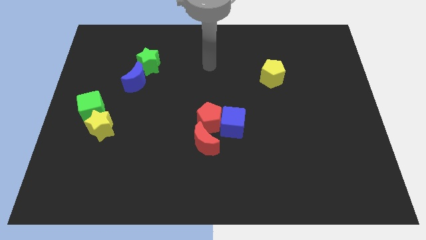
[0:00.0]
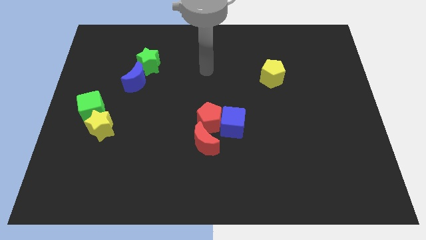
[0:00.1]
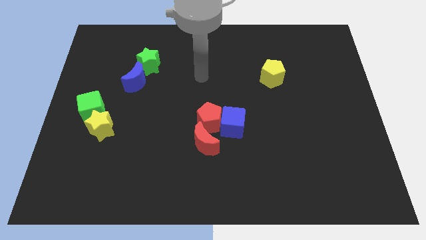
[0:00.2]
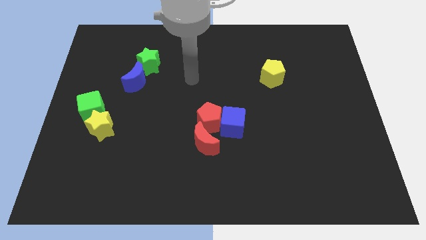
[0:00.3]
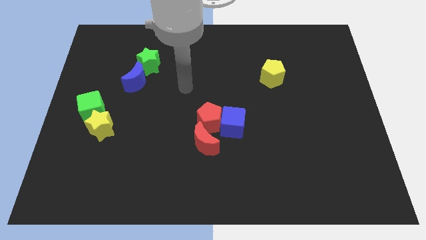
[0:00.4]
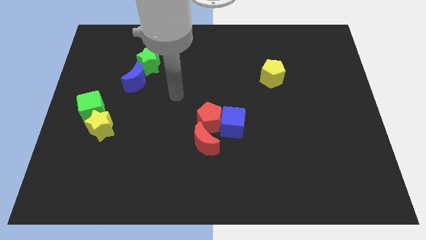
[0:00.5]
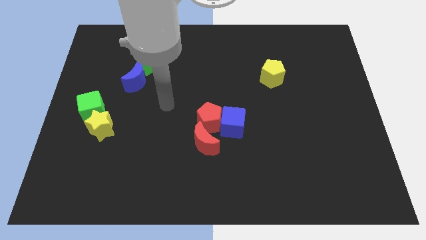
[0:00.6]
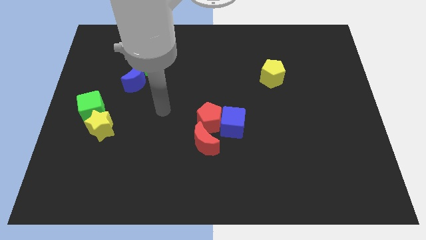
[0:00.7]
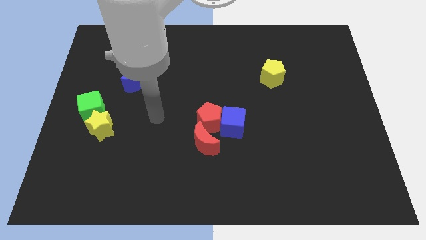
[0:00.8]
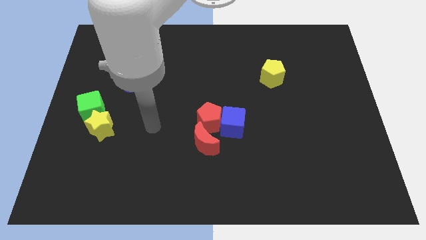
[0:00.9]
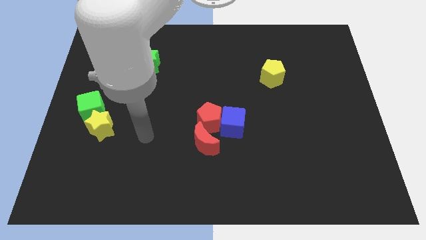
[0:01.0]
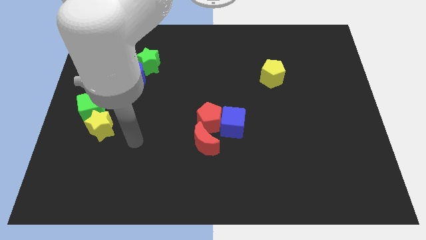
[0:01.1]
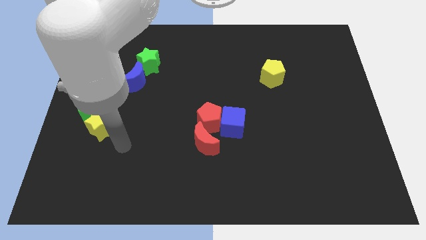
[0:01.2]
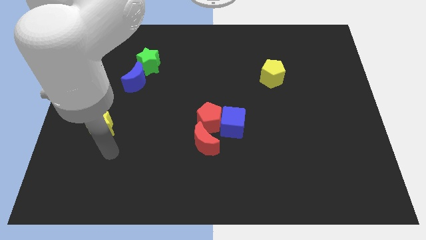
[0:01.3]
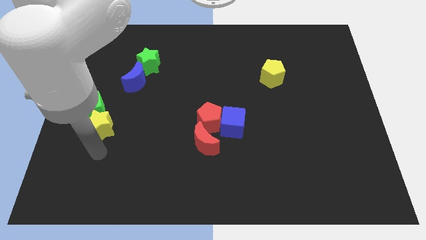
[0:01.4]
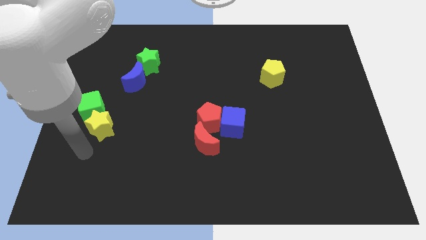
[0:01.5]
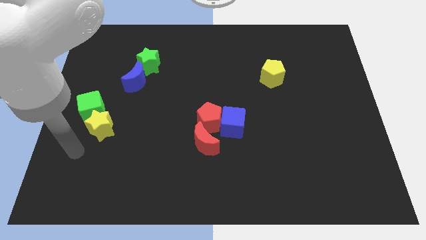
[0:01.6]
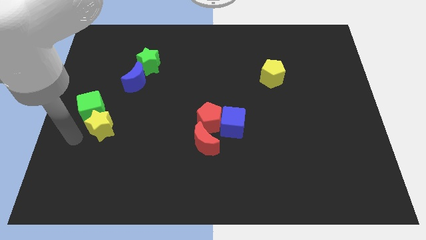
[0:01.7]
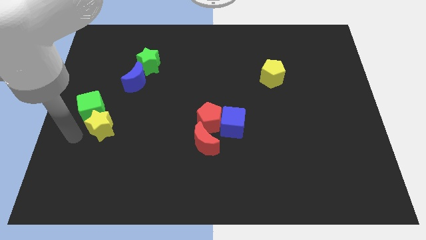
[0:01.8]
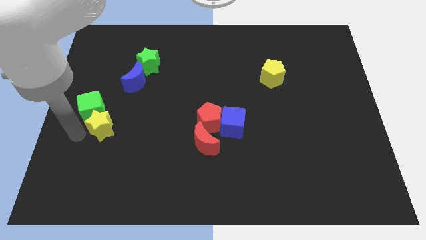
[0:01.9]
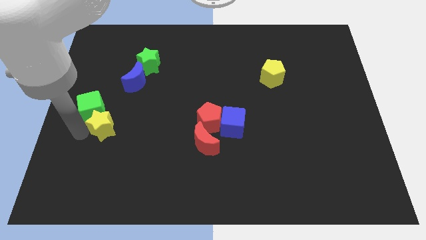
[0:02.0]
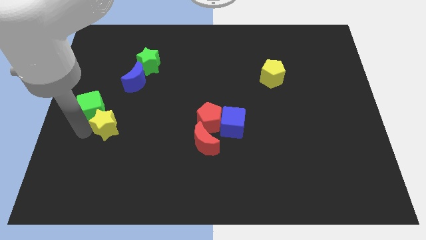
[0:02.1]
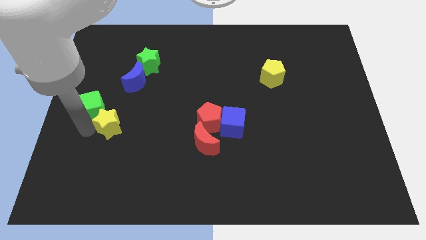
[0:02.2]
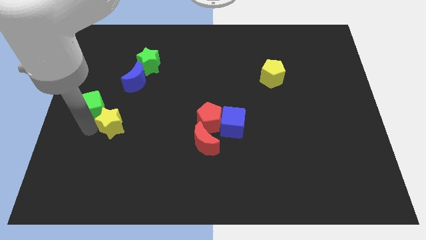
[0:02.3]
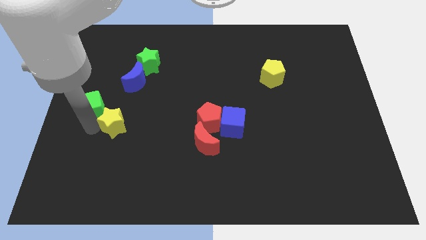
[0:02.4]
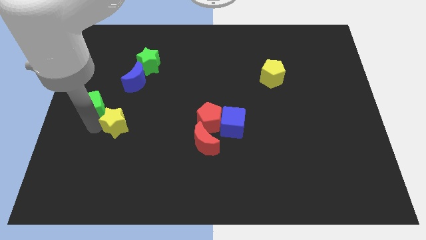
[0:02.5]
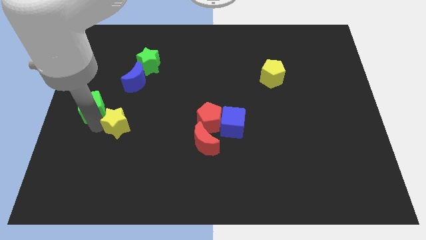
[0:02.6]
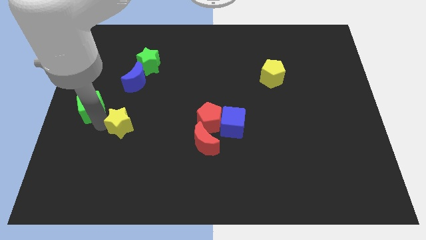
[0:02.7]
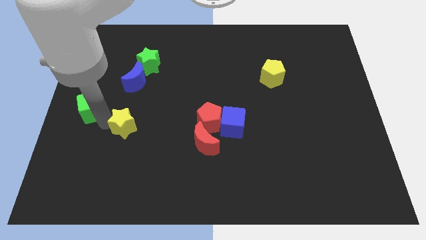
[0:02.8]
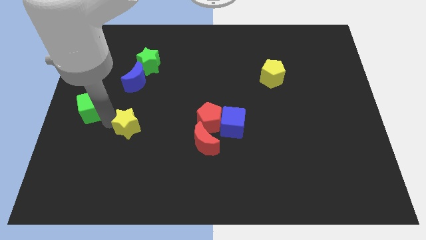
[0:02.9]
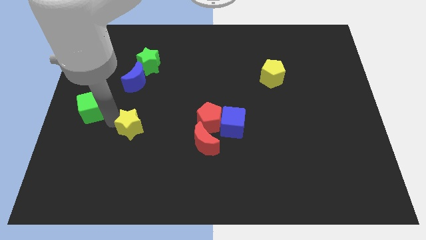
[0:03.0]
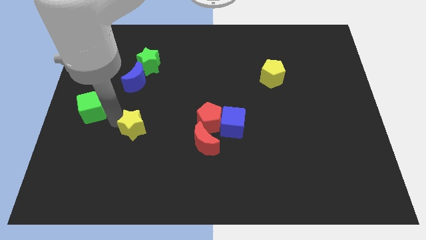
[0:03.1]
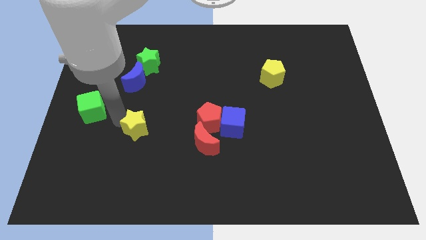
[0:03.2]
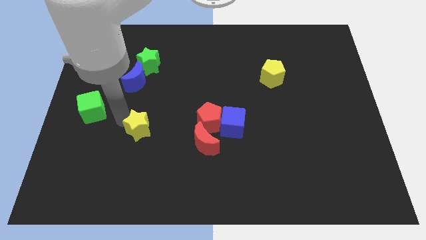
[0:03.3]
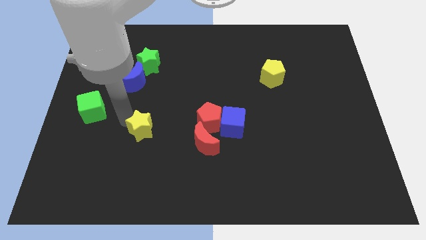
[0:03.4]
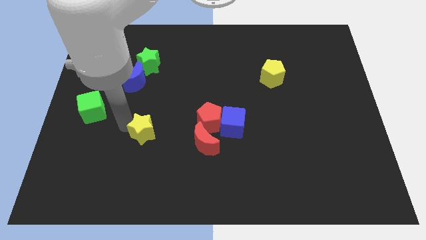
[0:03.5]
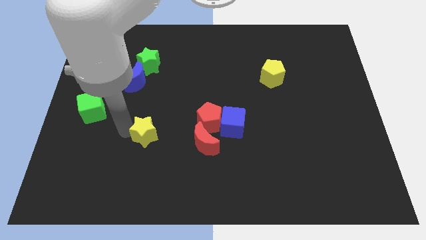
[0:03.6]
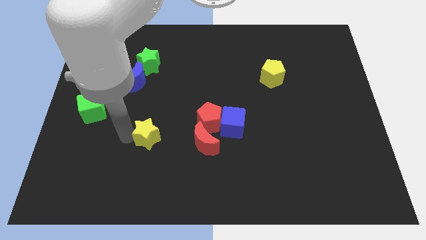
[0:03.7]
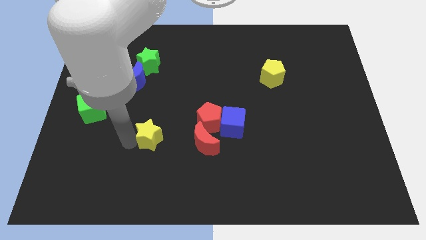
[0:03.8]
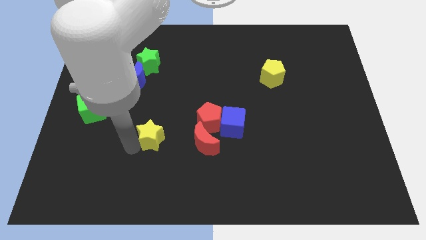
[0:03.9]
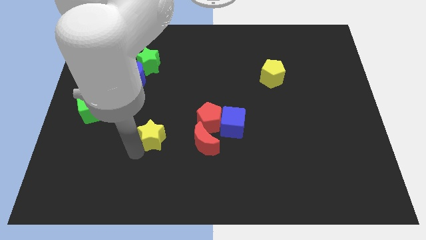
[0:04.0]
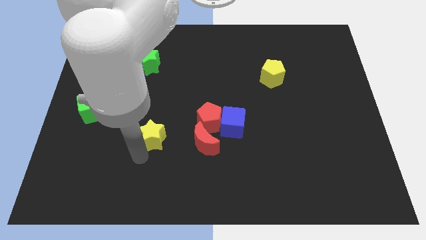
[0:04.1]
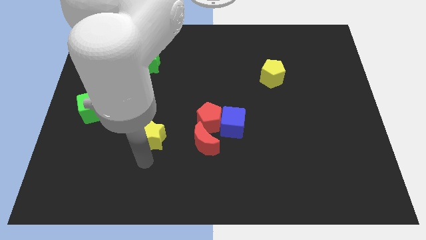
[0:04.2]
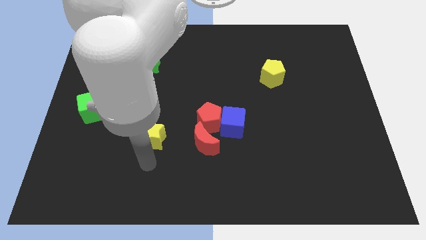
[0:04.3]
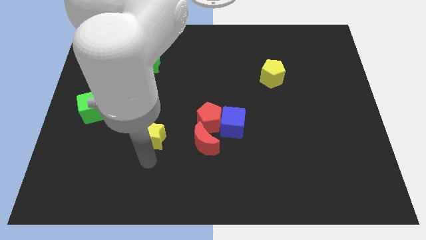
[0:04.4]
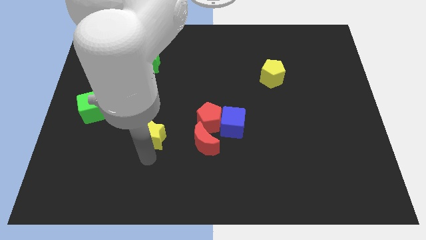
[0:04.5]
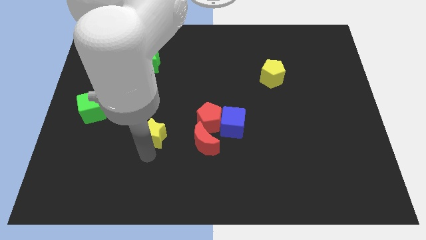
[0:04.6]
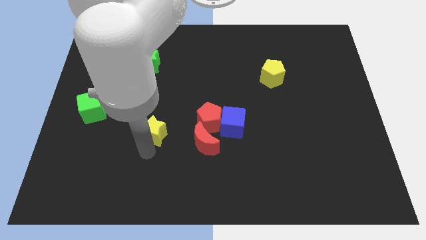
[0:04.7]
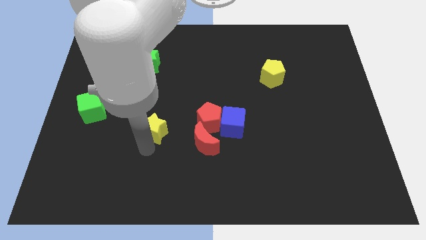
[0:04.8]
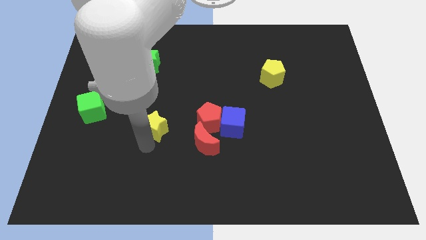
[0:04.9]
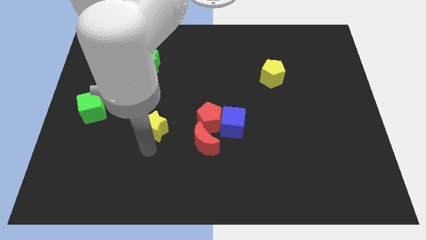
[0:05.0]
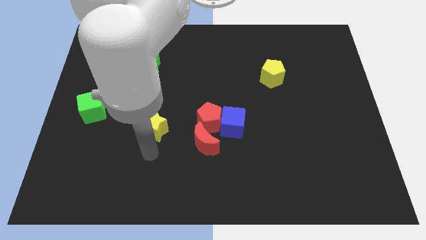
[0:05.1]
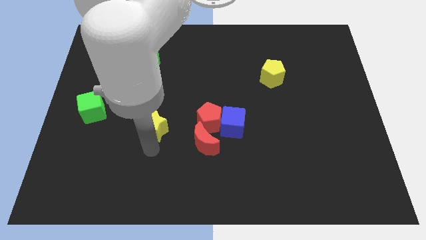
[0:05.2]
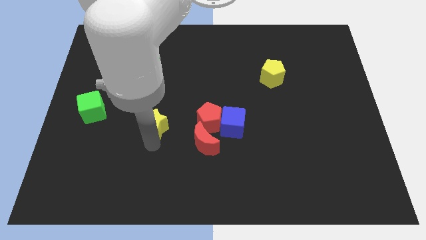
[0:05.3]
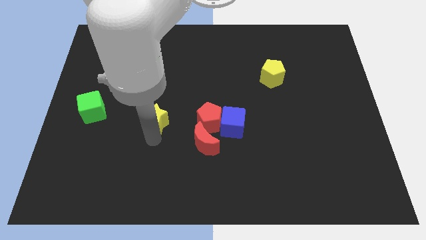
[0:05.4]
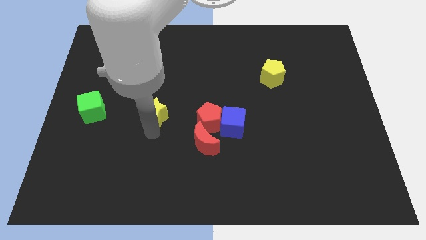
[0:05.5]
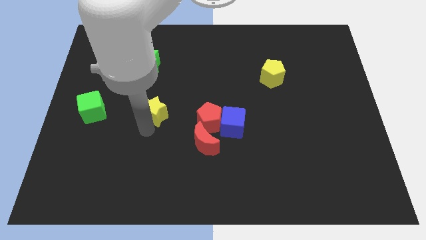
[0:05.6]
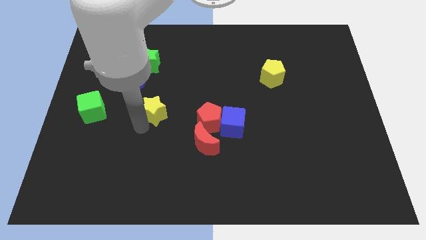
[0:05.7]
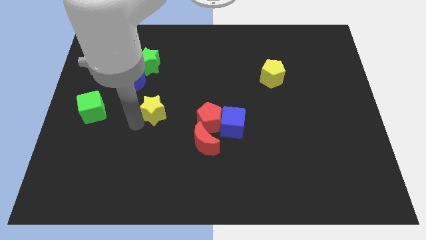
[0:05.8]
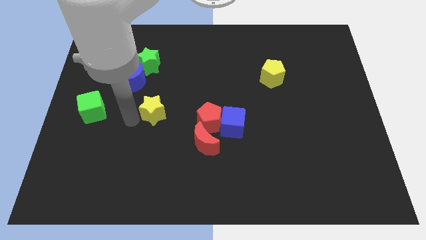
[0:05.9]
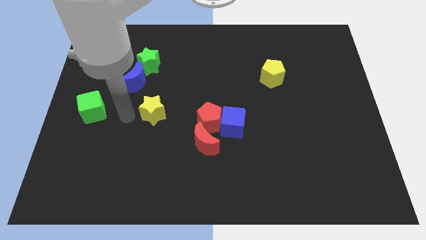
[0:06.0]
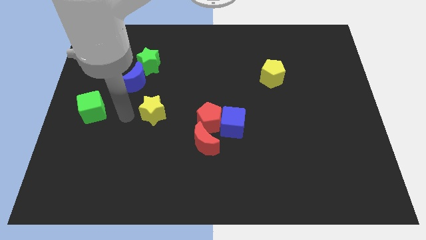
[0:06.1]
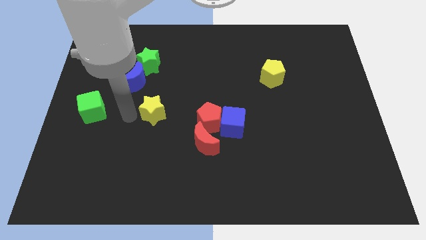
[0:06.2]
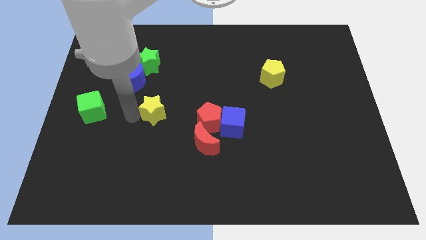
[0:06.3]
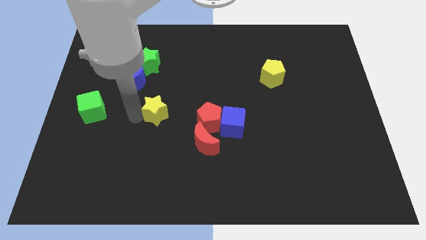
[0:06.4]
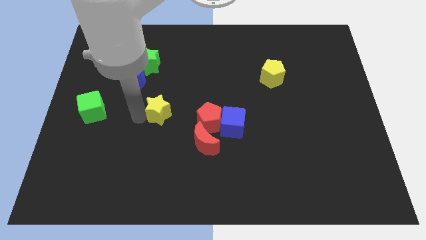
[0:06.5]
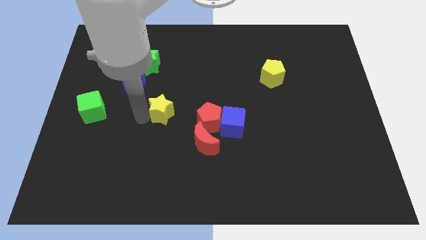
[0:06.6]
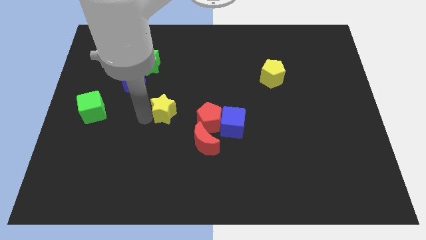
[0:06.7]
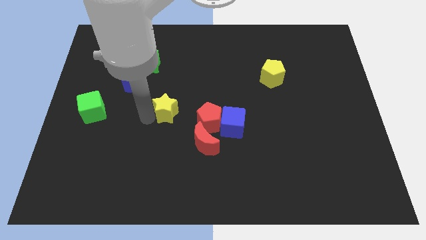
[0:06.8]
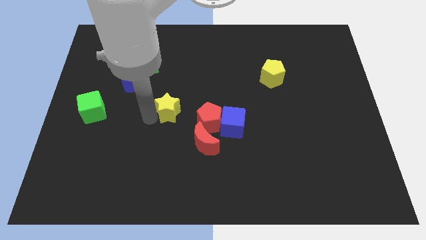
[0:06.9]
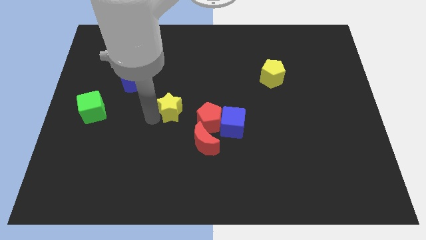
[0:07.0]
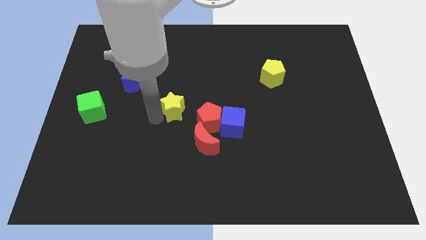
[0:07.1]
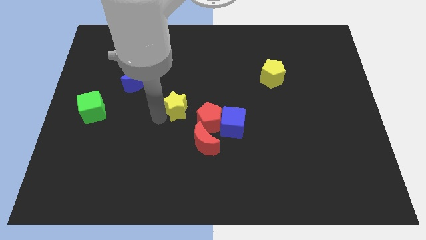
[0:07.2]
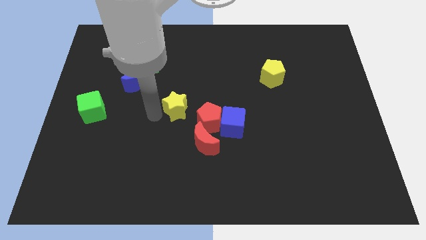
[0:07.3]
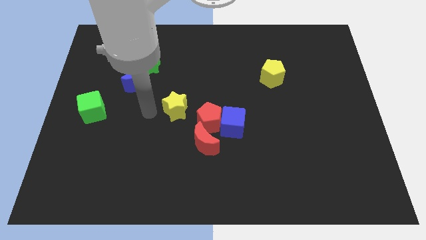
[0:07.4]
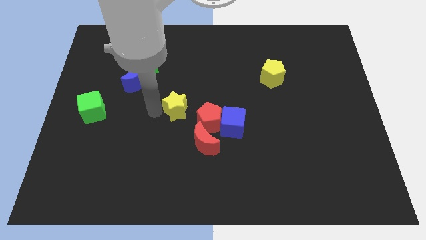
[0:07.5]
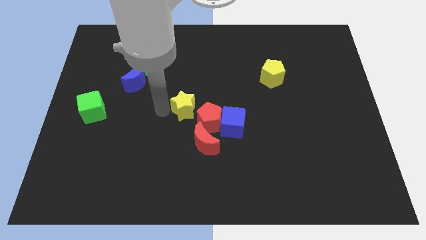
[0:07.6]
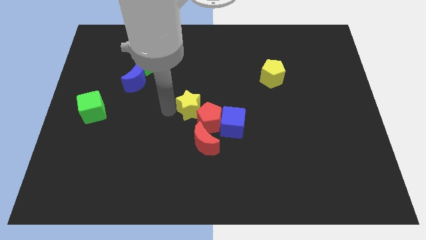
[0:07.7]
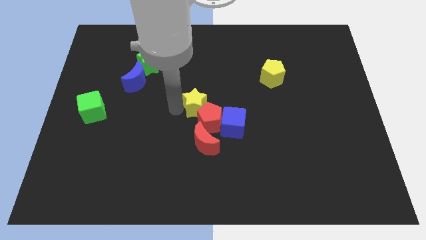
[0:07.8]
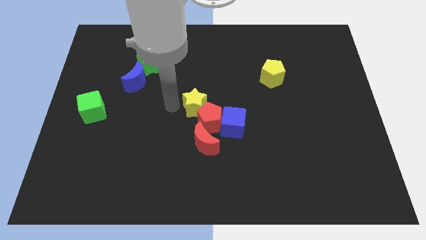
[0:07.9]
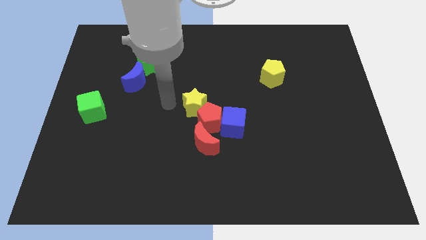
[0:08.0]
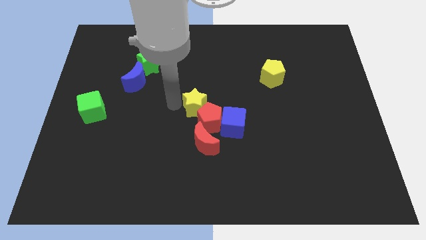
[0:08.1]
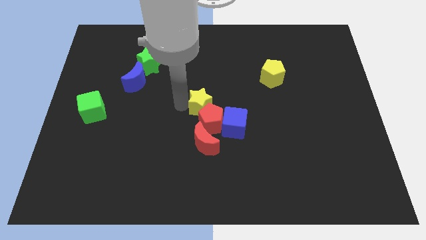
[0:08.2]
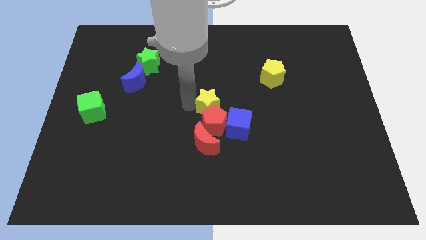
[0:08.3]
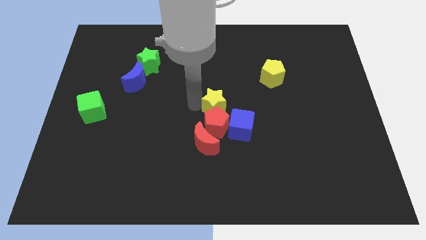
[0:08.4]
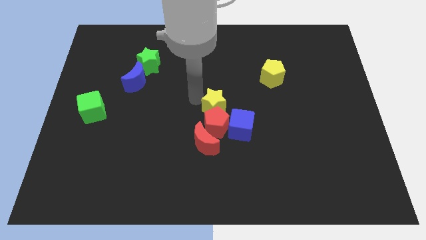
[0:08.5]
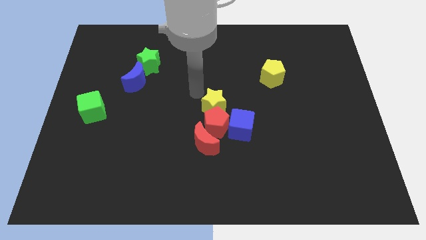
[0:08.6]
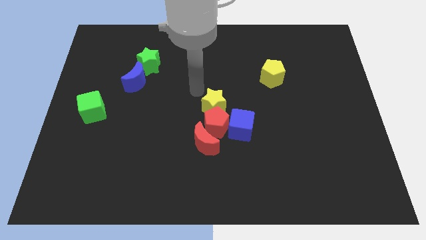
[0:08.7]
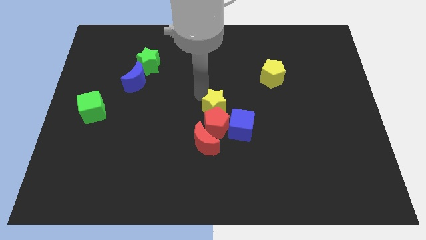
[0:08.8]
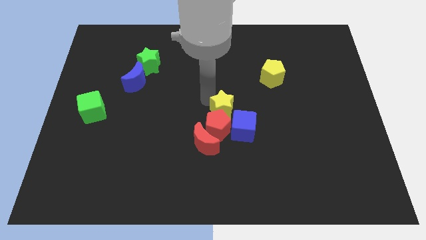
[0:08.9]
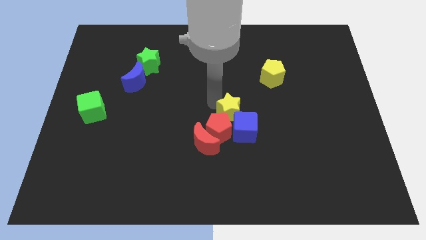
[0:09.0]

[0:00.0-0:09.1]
move the yellow star to the blue cube
